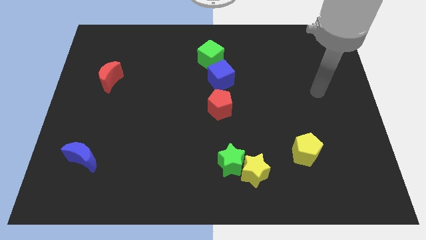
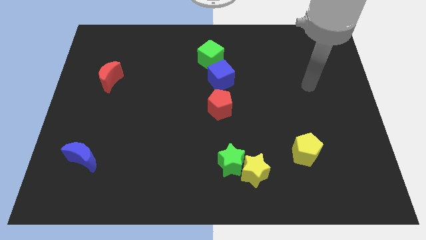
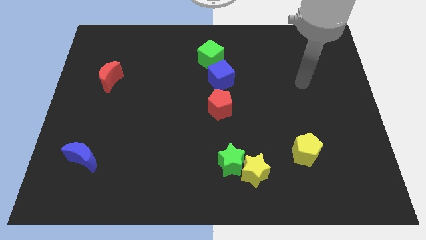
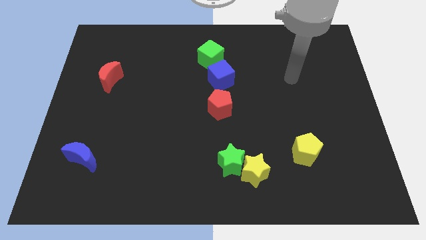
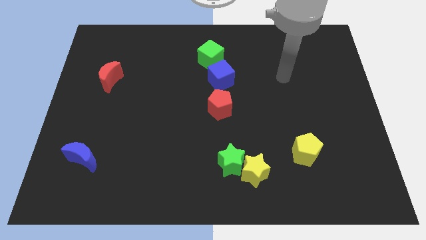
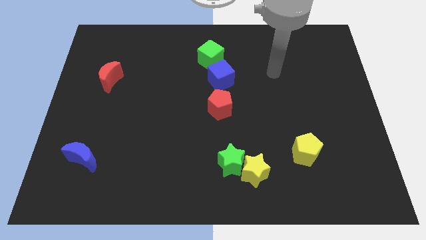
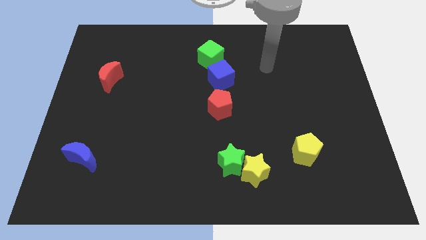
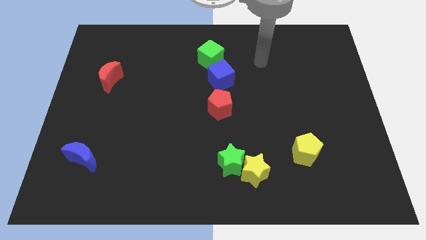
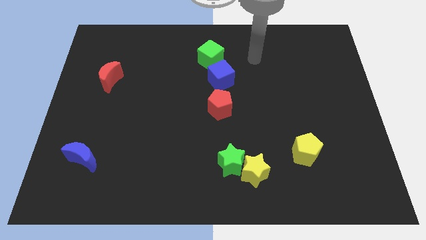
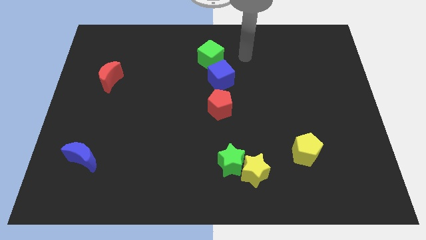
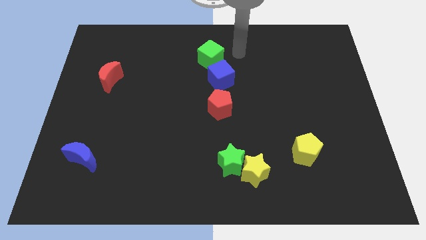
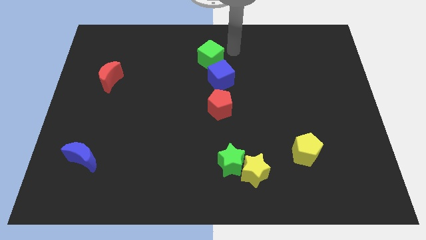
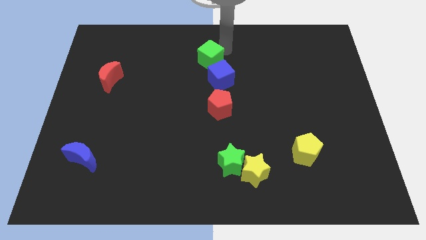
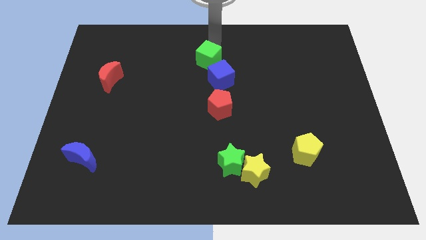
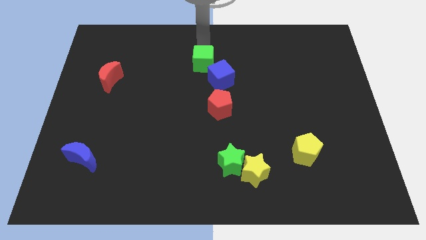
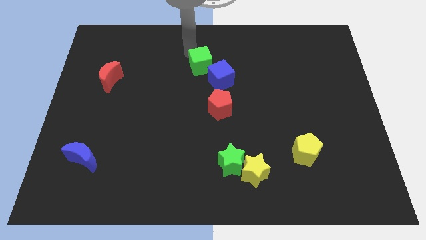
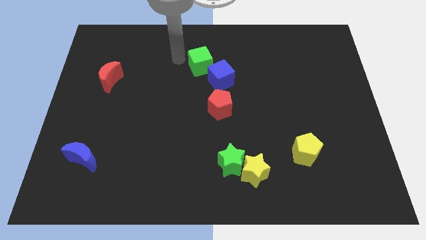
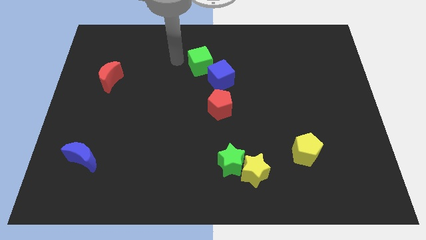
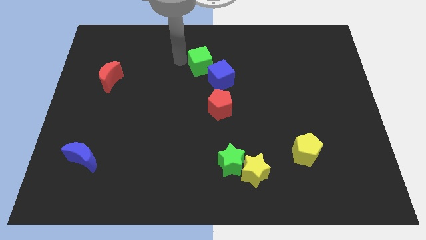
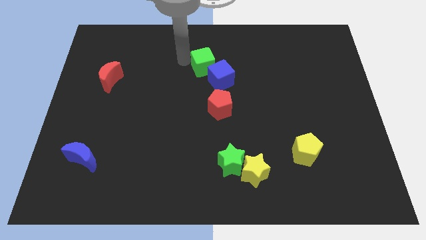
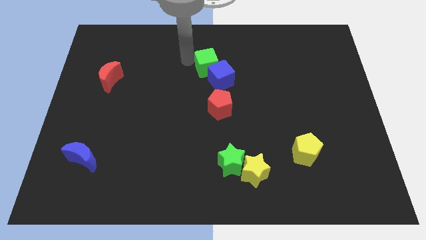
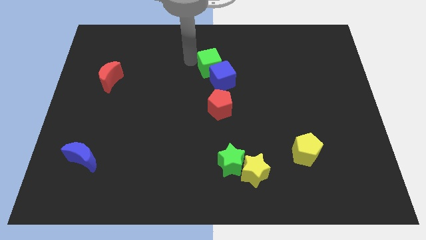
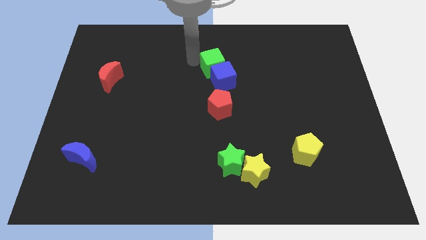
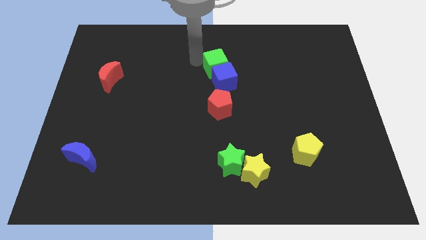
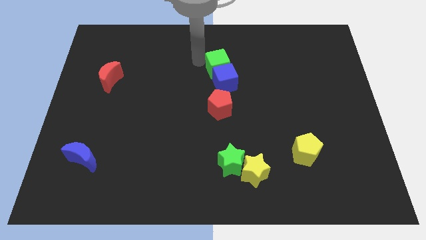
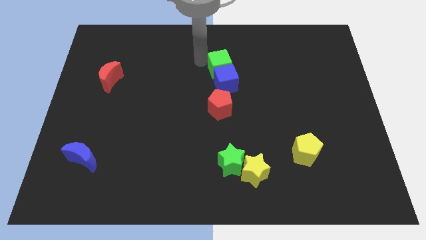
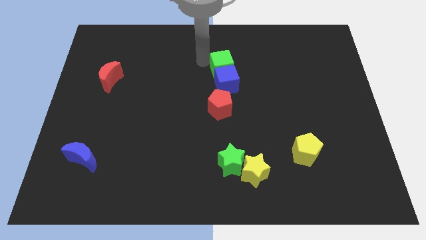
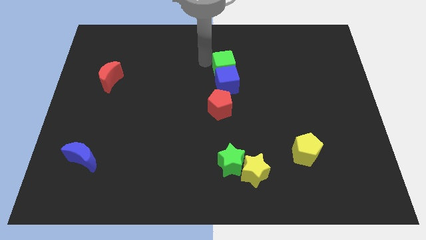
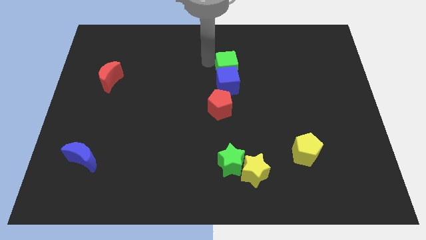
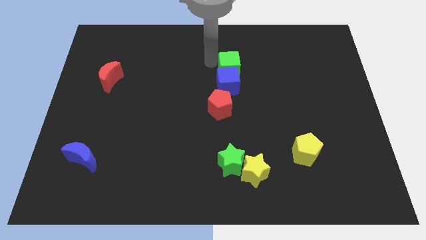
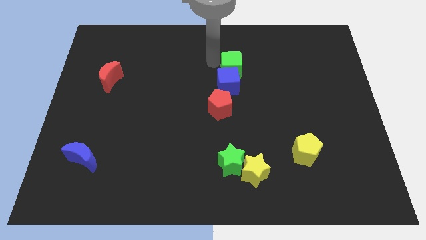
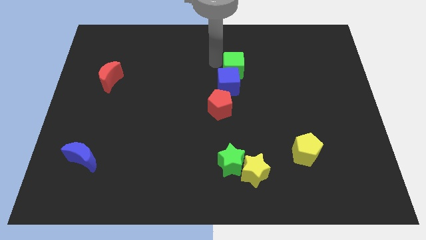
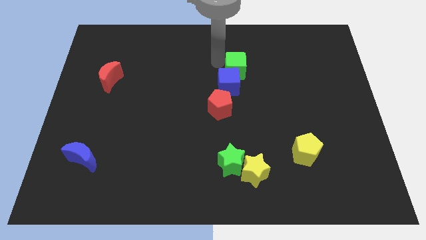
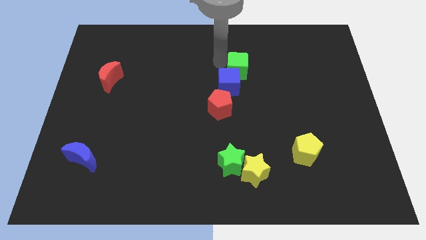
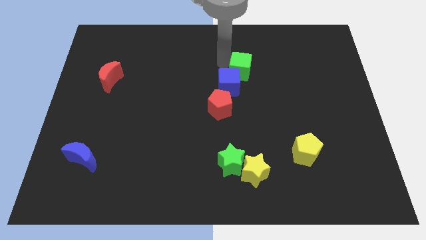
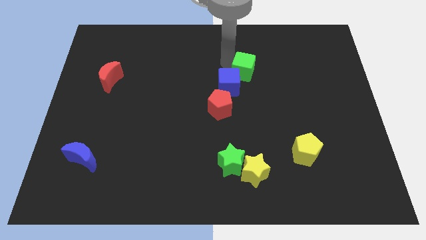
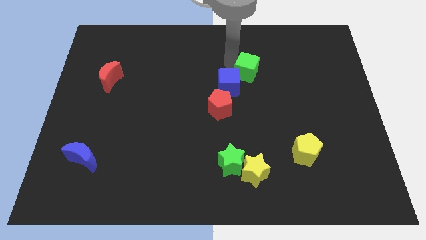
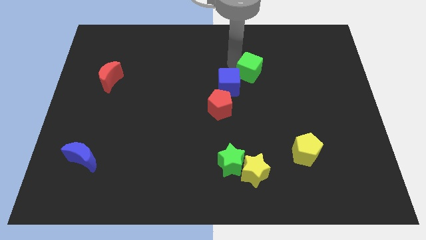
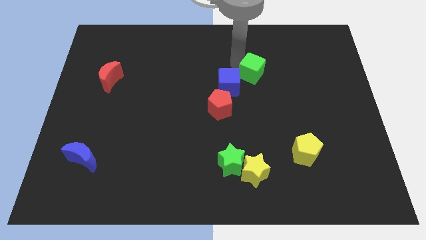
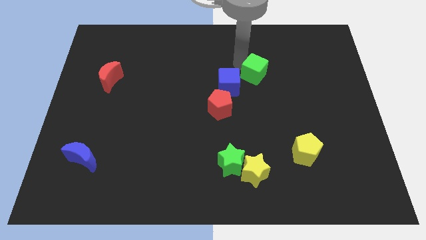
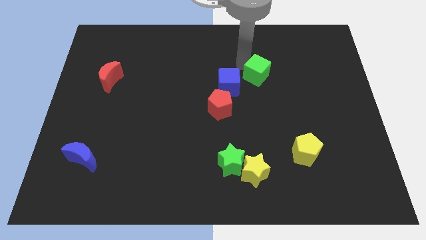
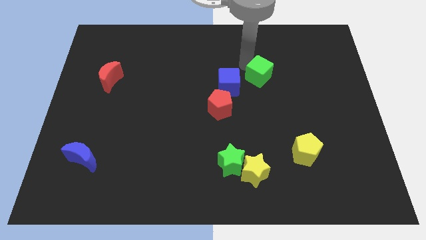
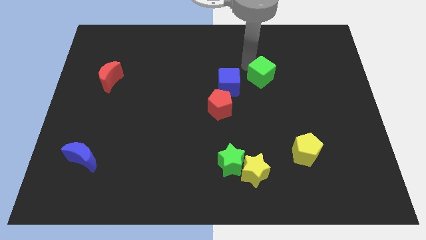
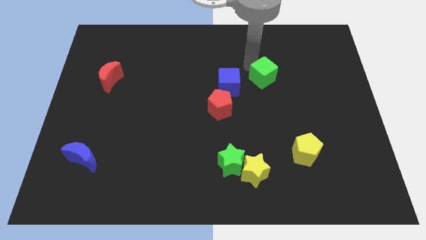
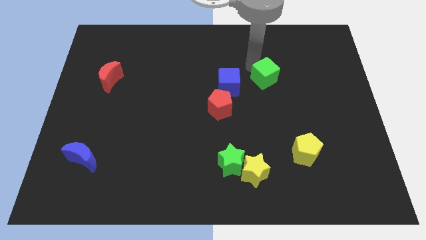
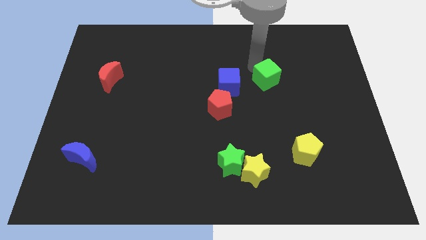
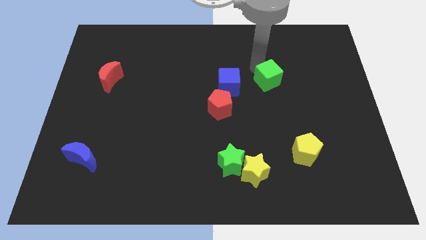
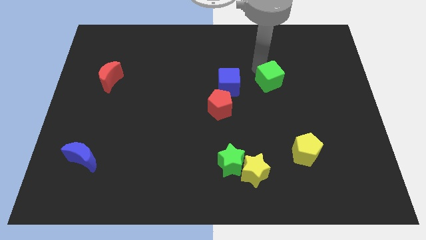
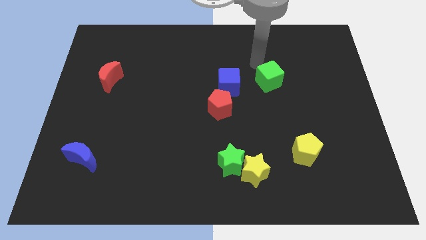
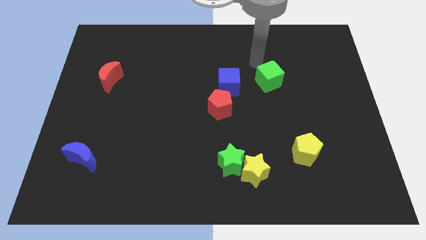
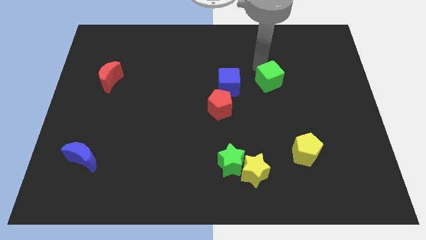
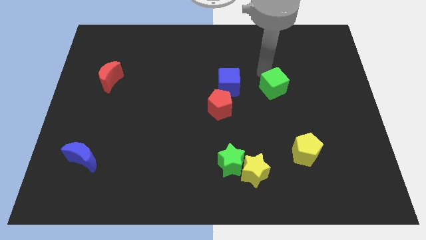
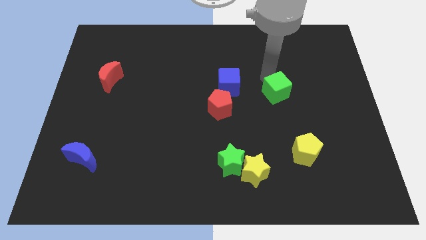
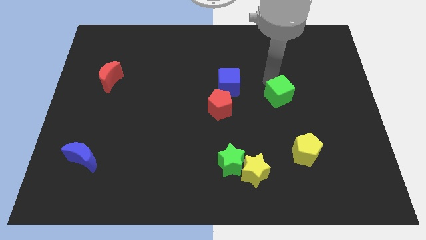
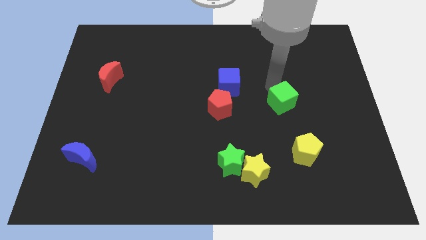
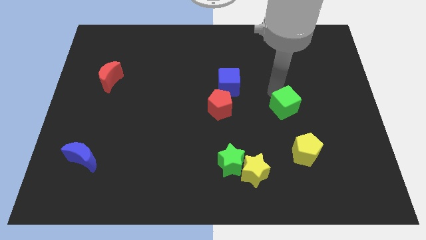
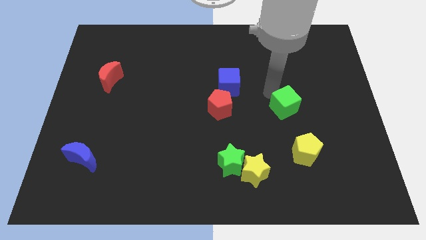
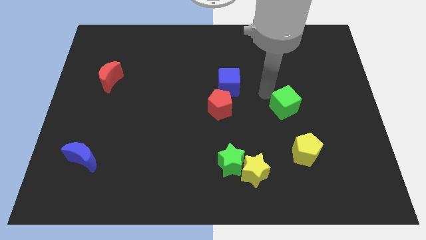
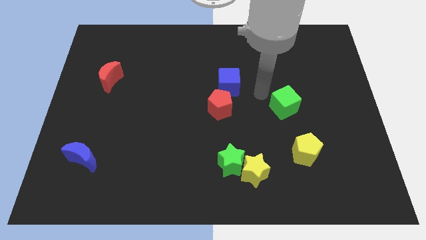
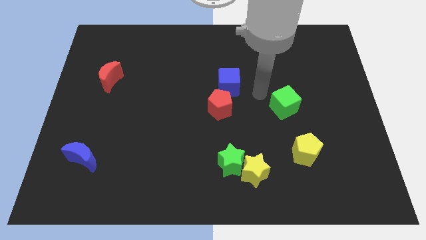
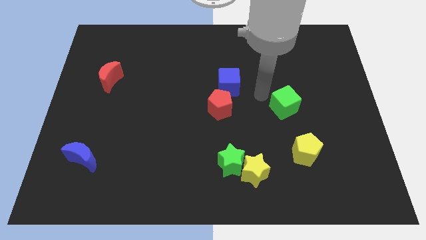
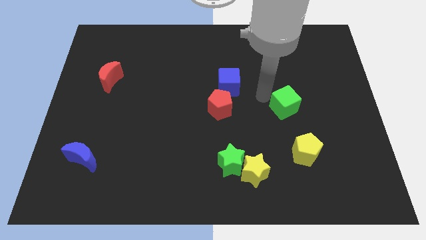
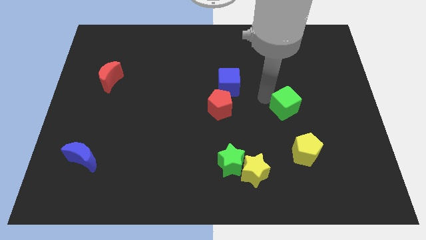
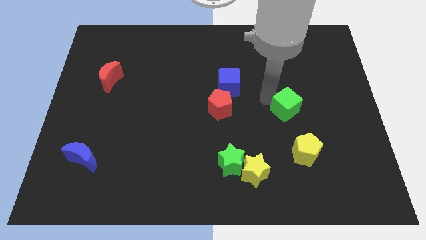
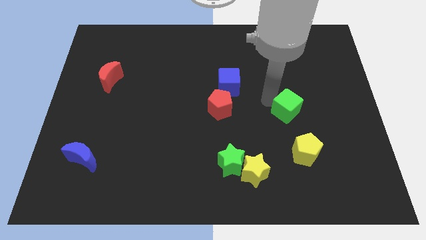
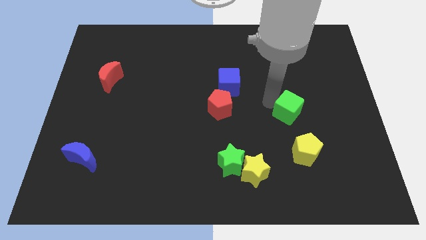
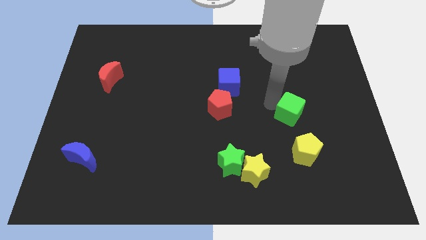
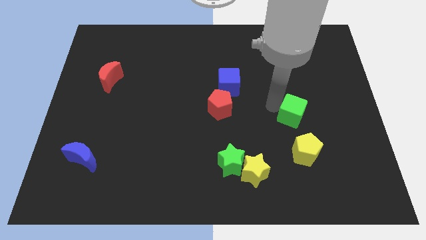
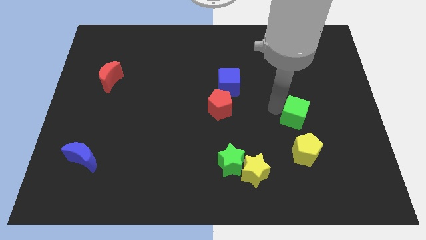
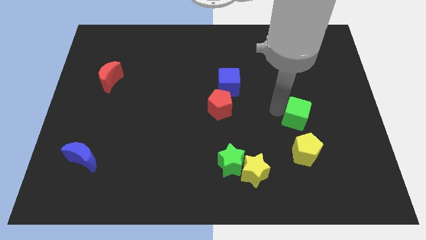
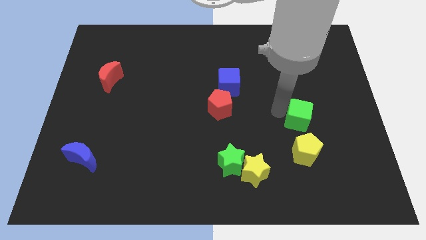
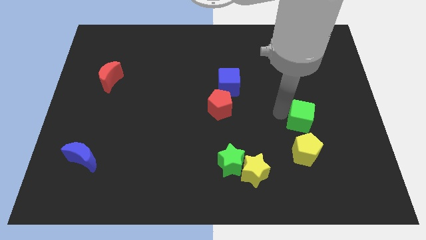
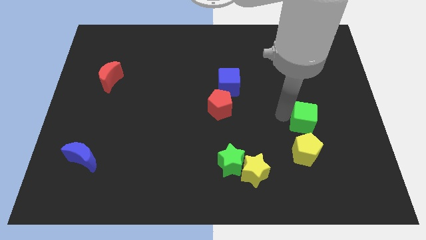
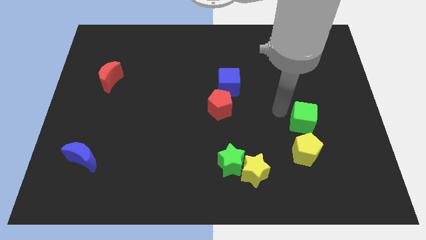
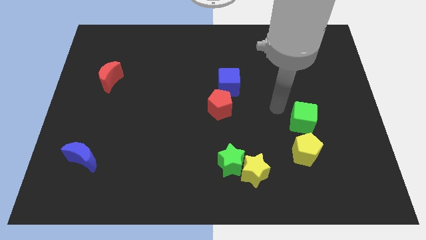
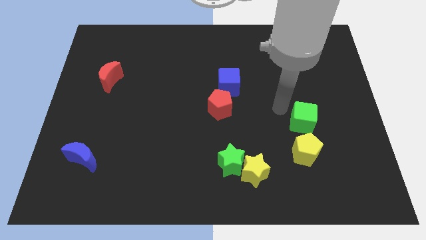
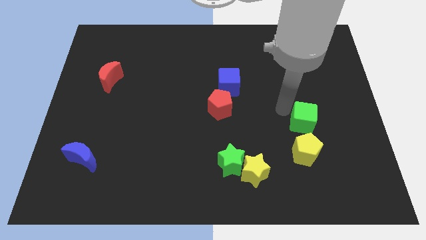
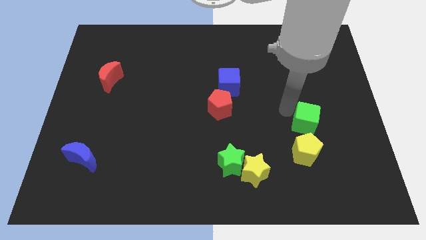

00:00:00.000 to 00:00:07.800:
slide the green cube to the top right side of the yellow pentagon
